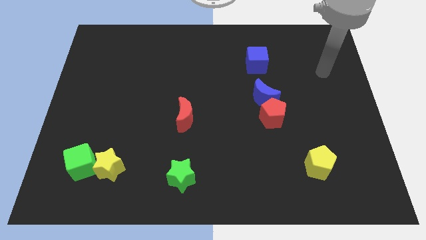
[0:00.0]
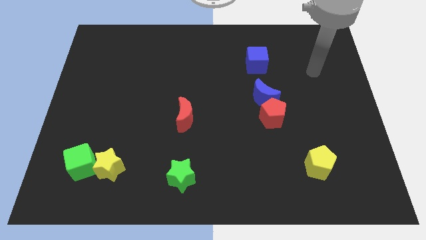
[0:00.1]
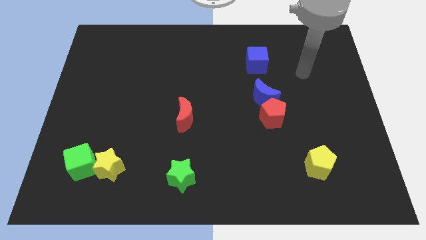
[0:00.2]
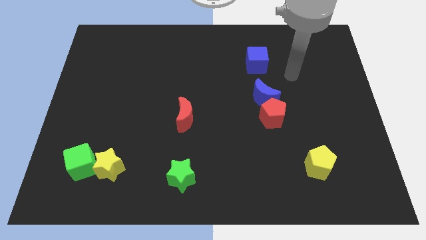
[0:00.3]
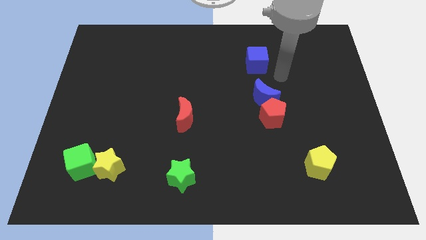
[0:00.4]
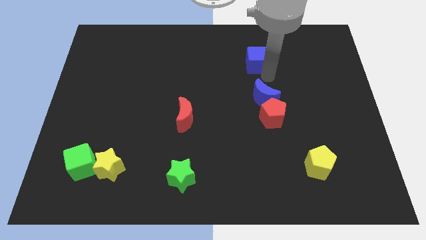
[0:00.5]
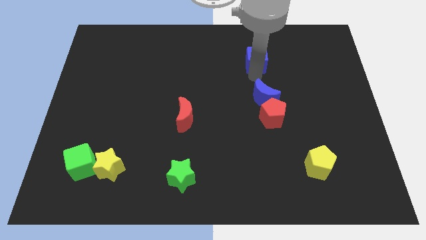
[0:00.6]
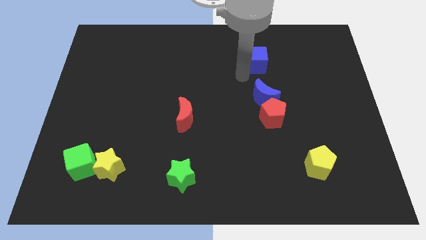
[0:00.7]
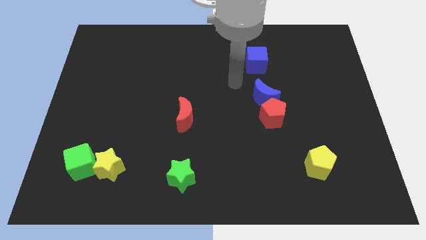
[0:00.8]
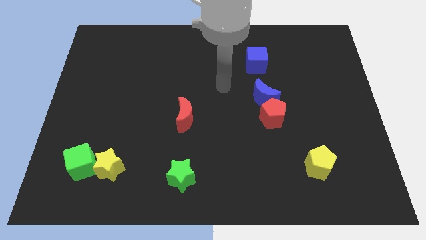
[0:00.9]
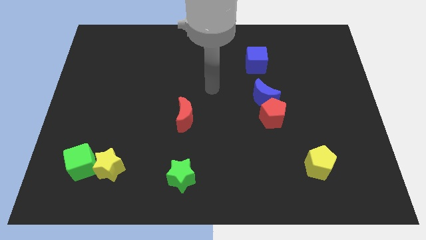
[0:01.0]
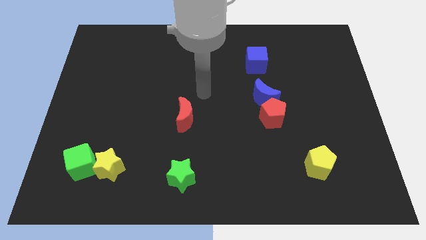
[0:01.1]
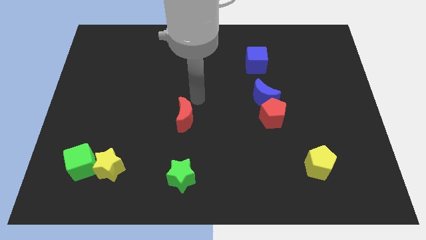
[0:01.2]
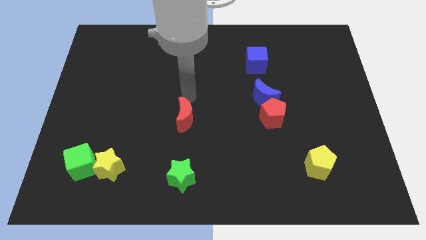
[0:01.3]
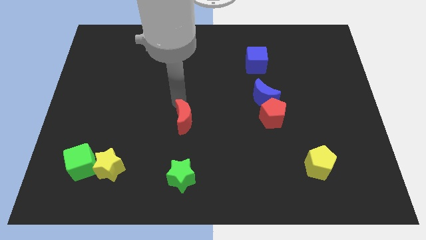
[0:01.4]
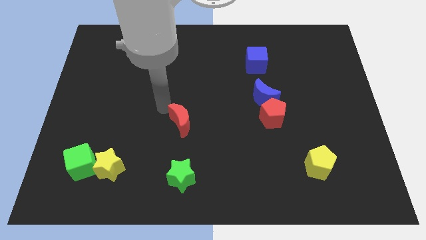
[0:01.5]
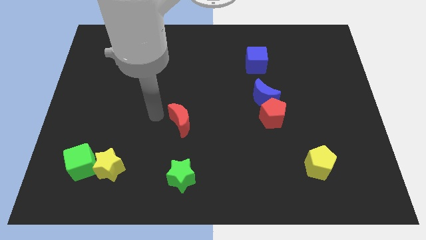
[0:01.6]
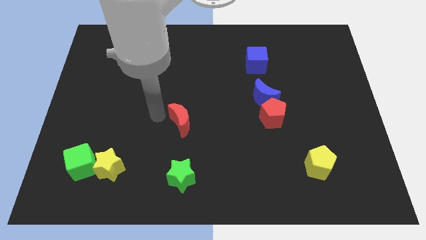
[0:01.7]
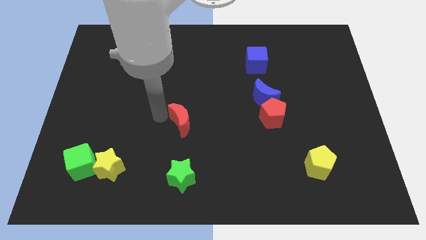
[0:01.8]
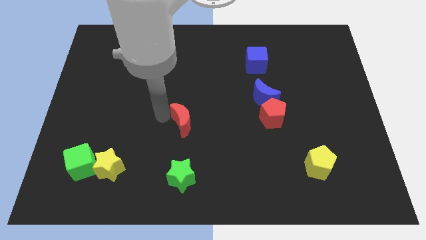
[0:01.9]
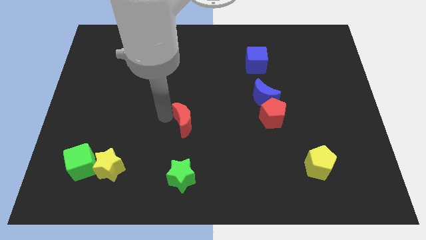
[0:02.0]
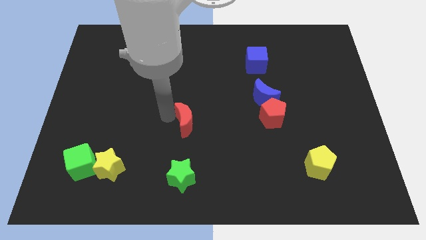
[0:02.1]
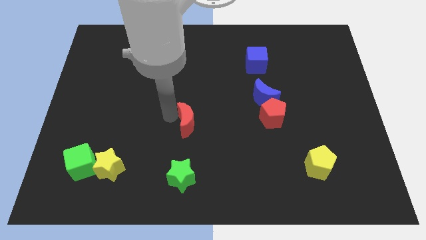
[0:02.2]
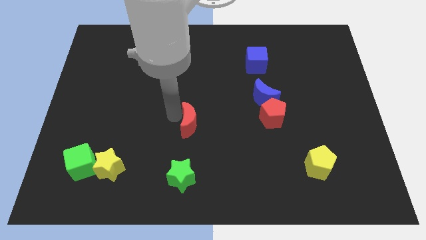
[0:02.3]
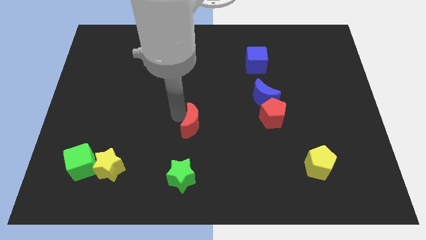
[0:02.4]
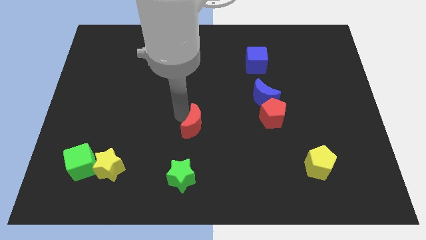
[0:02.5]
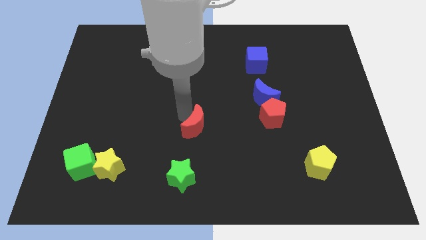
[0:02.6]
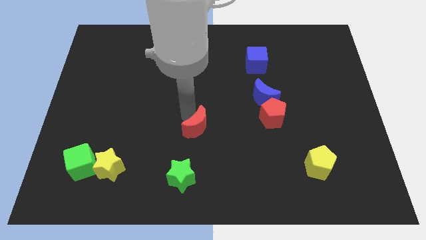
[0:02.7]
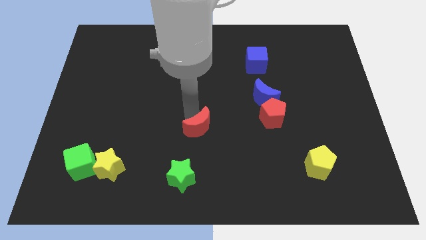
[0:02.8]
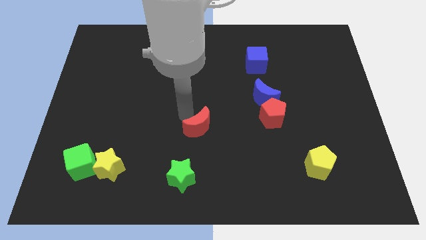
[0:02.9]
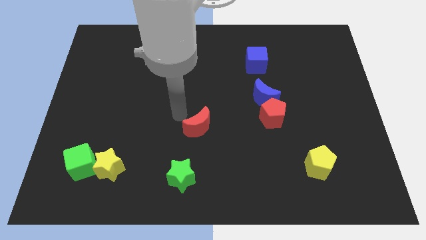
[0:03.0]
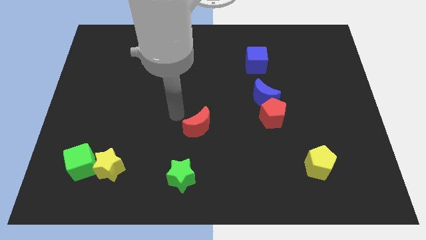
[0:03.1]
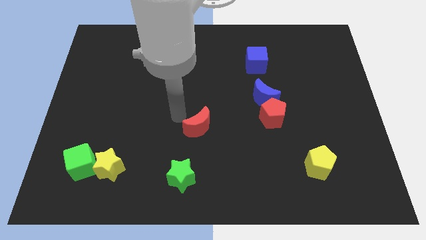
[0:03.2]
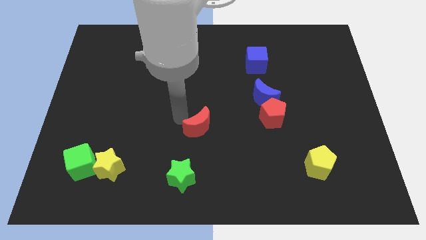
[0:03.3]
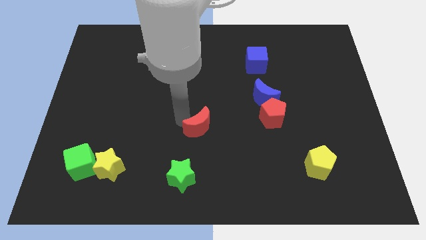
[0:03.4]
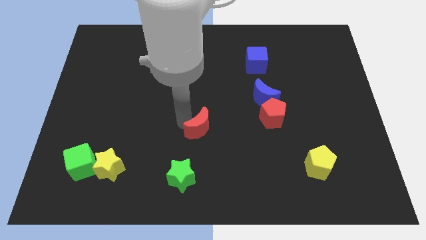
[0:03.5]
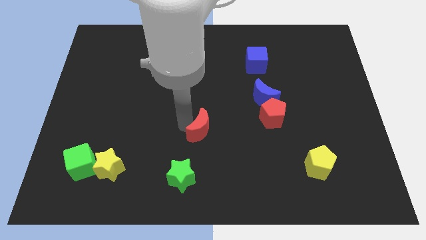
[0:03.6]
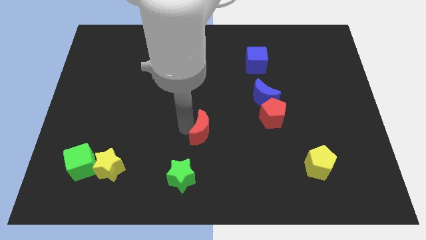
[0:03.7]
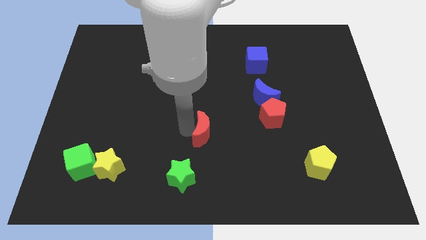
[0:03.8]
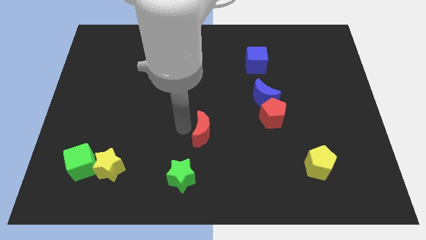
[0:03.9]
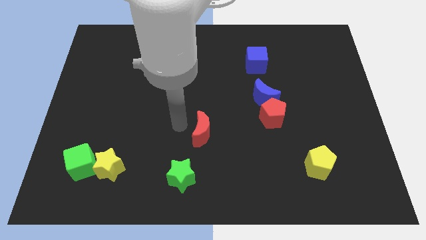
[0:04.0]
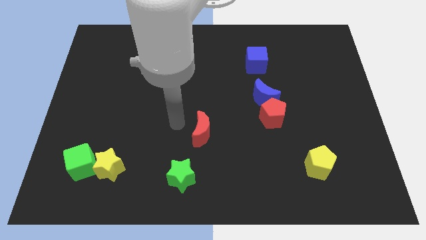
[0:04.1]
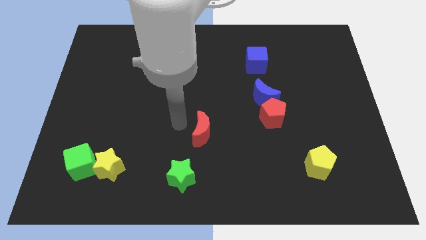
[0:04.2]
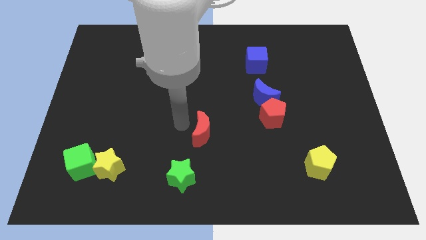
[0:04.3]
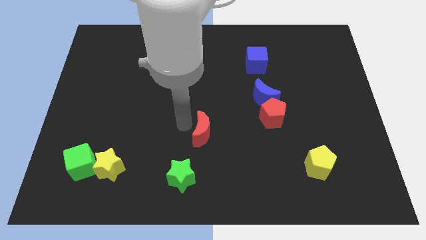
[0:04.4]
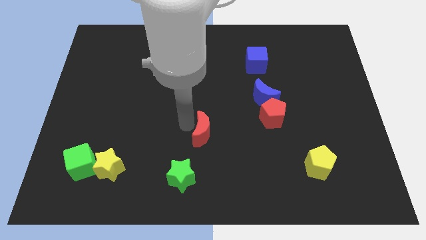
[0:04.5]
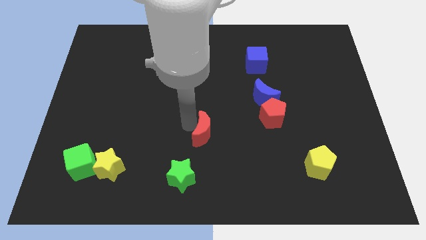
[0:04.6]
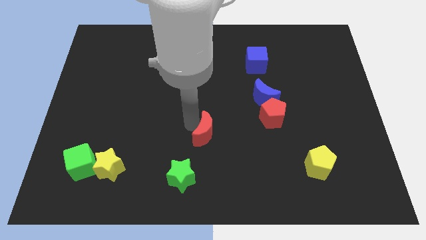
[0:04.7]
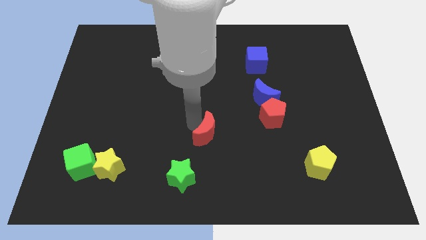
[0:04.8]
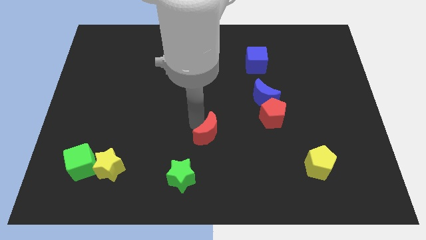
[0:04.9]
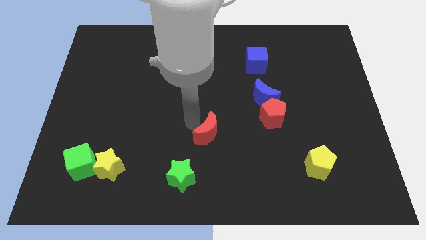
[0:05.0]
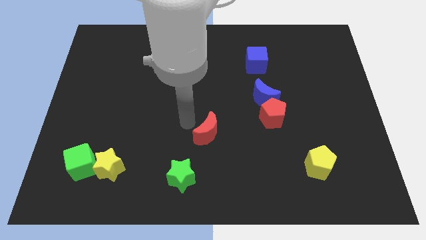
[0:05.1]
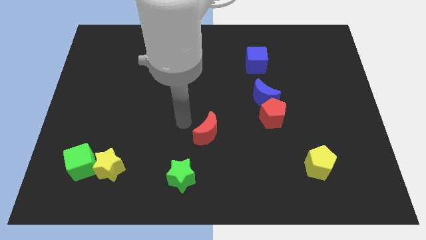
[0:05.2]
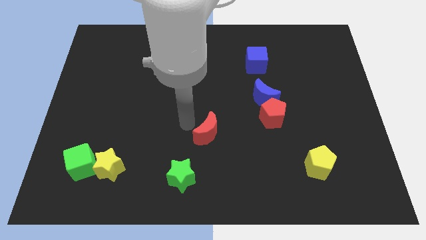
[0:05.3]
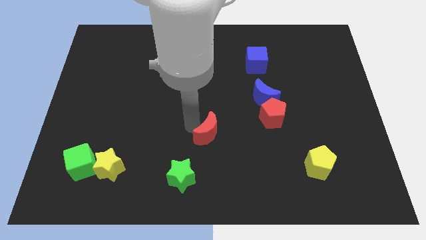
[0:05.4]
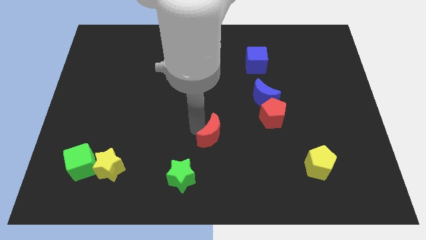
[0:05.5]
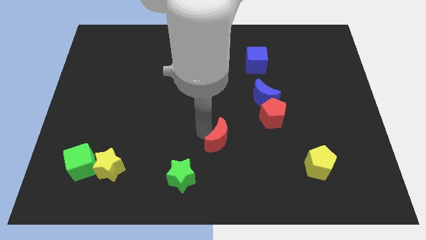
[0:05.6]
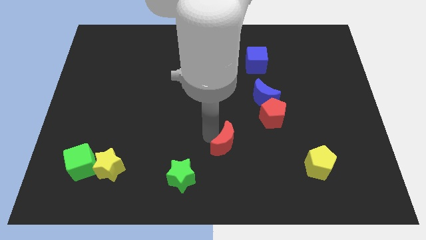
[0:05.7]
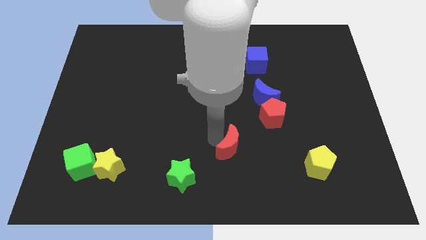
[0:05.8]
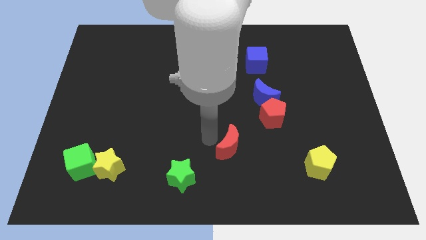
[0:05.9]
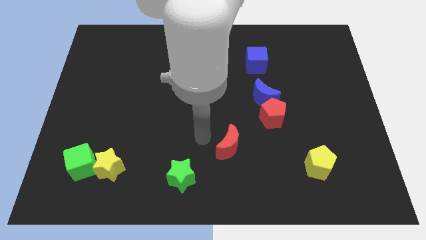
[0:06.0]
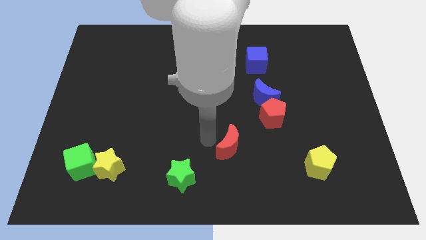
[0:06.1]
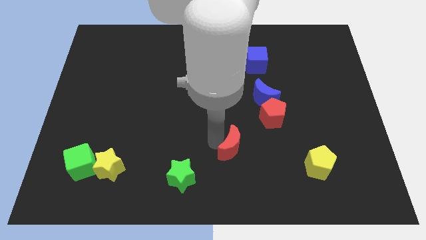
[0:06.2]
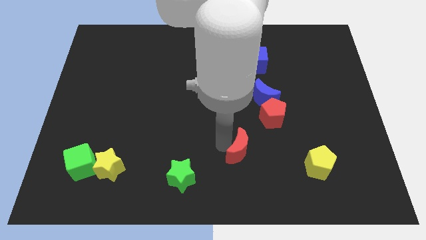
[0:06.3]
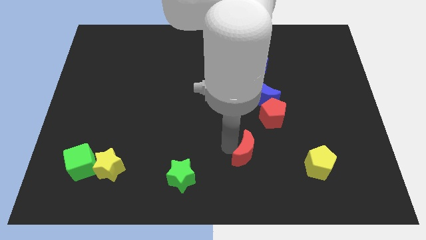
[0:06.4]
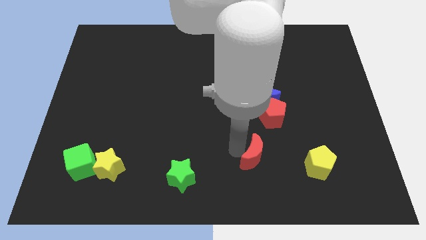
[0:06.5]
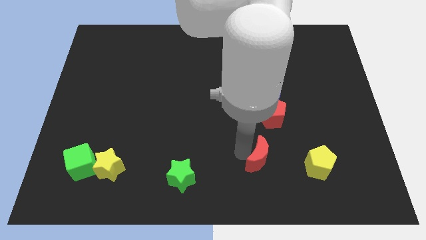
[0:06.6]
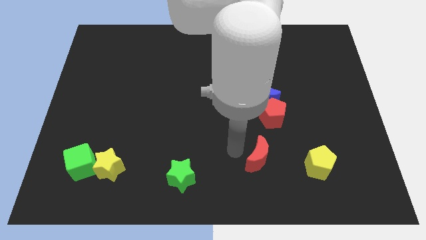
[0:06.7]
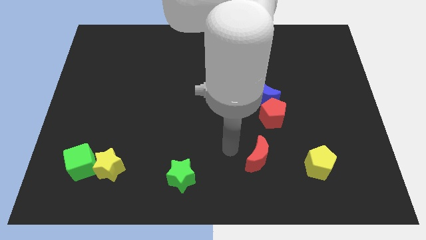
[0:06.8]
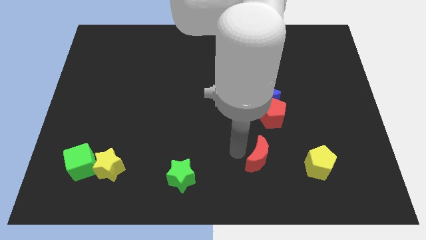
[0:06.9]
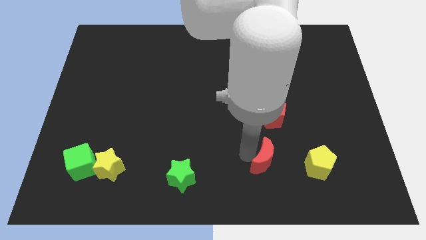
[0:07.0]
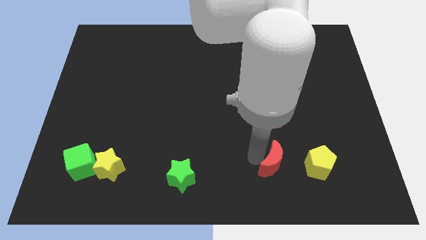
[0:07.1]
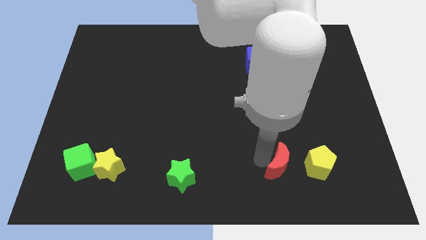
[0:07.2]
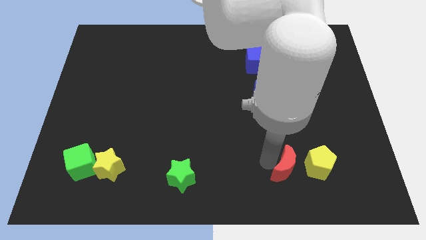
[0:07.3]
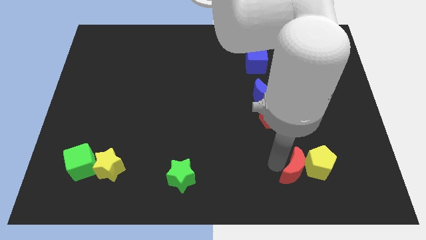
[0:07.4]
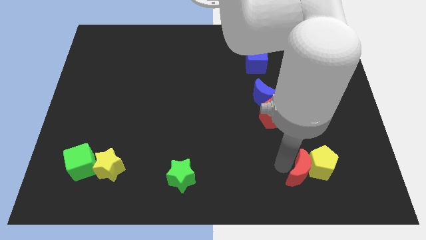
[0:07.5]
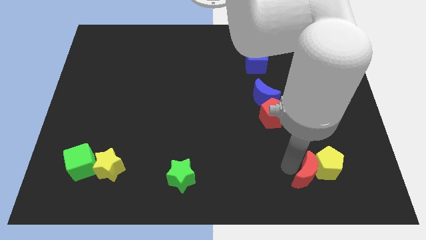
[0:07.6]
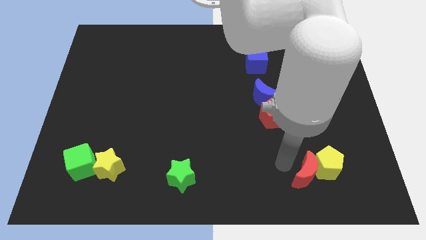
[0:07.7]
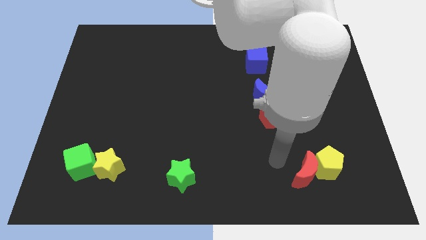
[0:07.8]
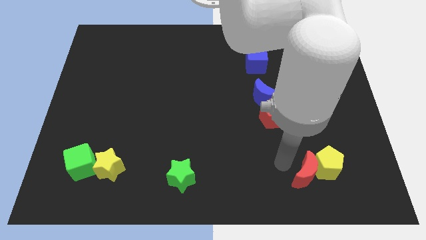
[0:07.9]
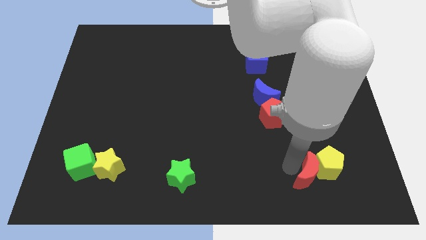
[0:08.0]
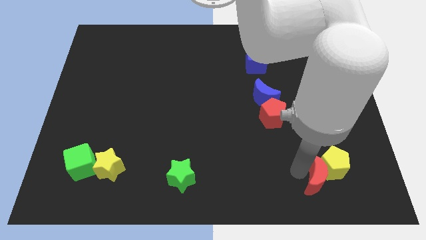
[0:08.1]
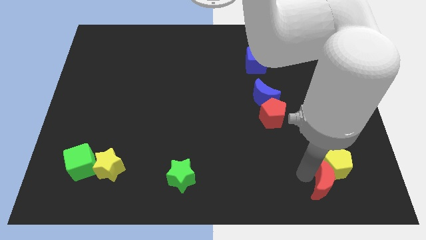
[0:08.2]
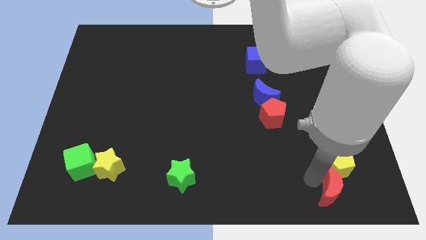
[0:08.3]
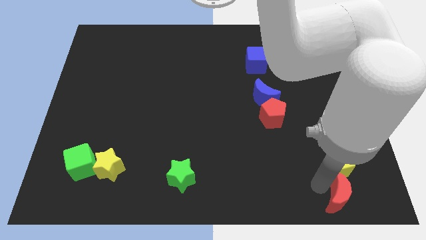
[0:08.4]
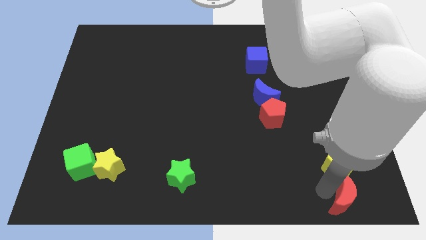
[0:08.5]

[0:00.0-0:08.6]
put the red moon to the bottom right
